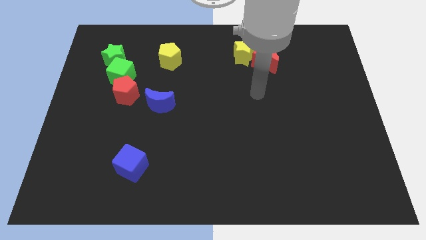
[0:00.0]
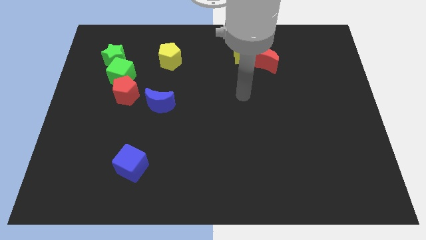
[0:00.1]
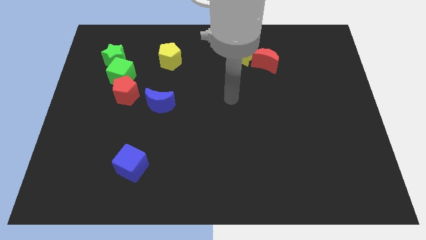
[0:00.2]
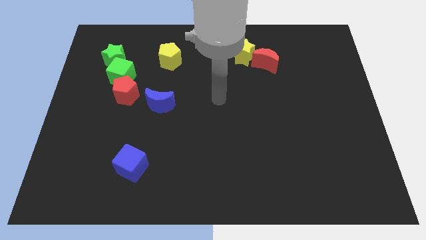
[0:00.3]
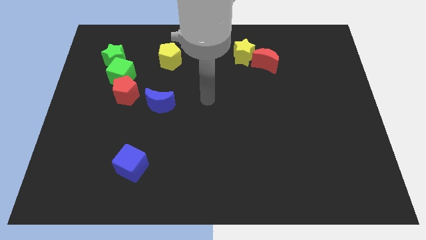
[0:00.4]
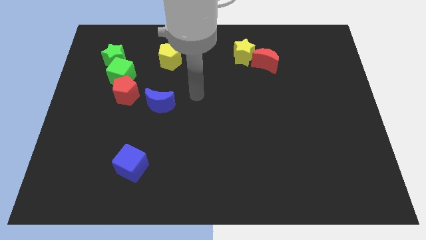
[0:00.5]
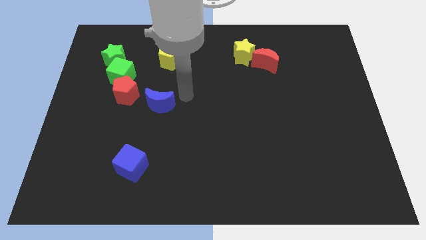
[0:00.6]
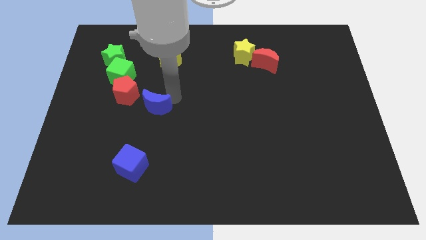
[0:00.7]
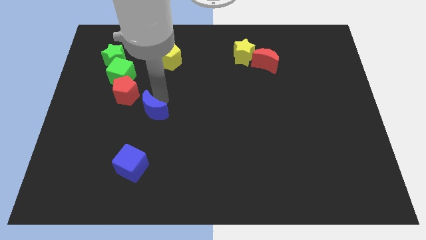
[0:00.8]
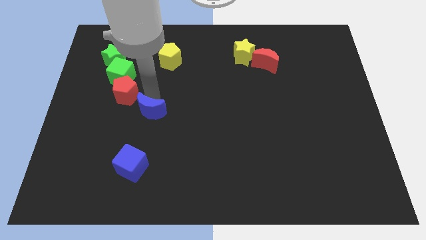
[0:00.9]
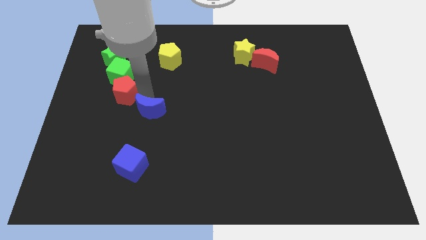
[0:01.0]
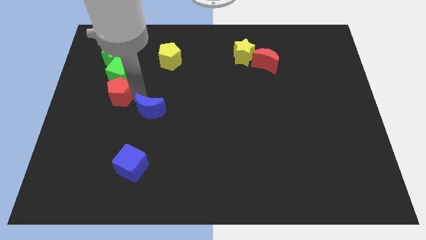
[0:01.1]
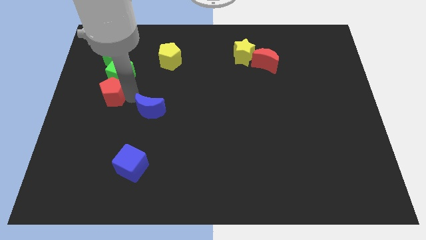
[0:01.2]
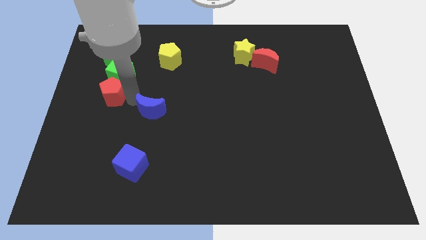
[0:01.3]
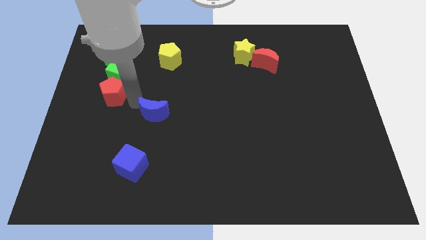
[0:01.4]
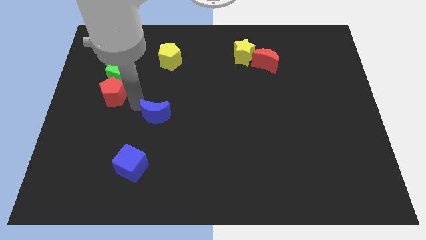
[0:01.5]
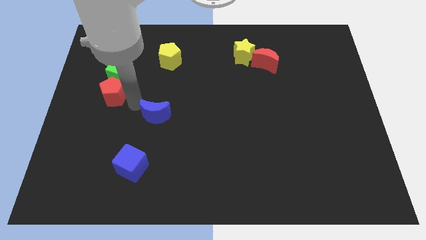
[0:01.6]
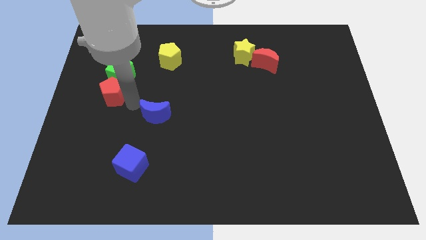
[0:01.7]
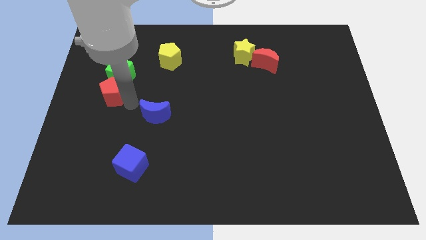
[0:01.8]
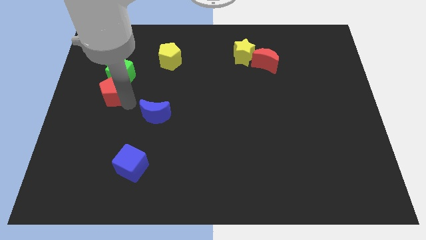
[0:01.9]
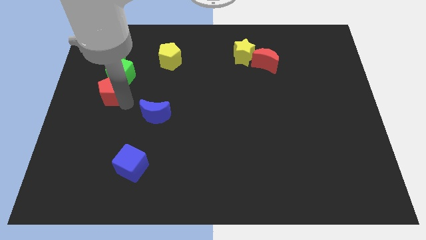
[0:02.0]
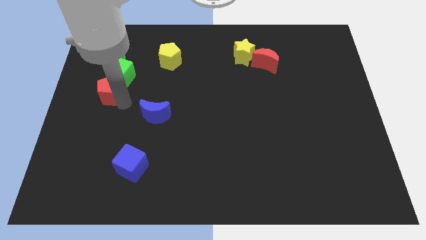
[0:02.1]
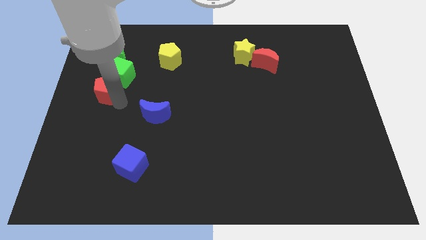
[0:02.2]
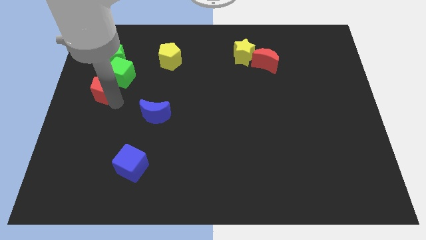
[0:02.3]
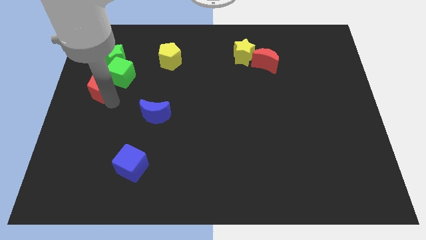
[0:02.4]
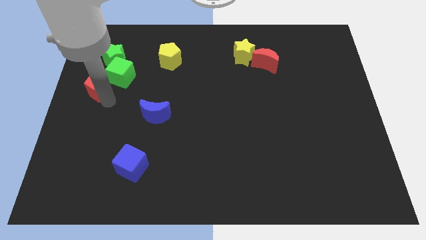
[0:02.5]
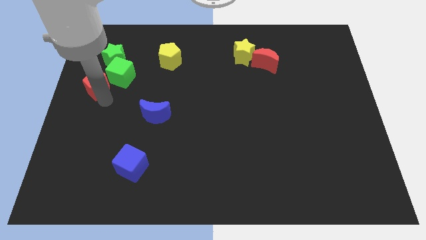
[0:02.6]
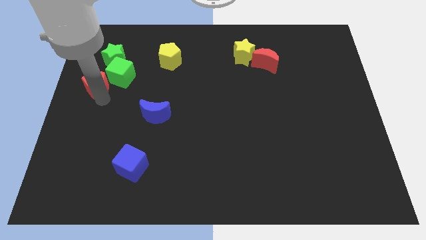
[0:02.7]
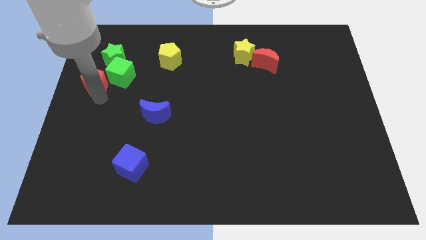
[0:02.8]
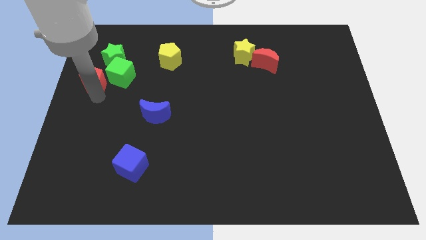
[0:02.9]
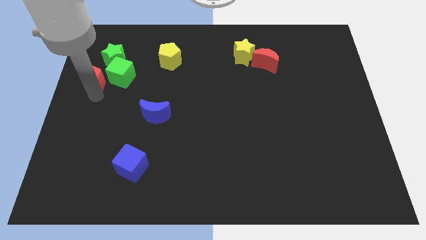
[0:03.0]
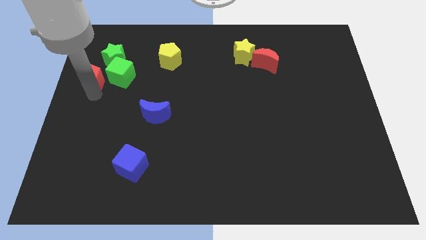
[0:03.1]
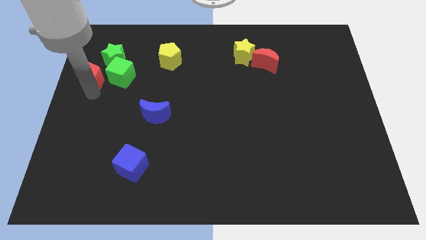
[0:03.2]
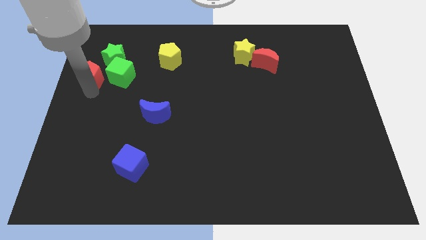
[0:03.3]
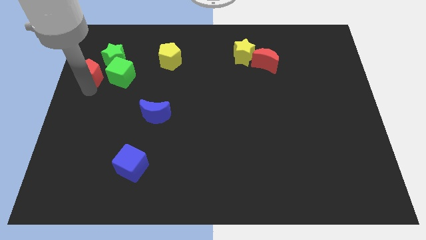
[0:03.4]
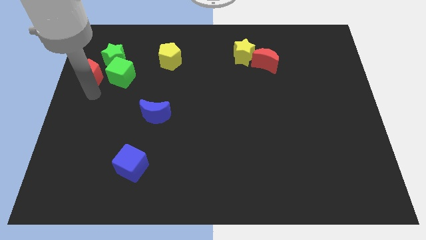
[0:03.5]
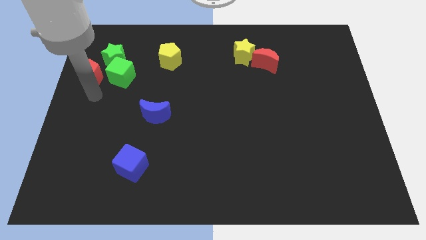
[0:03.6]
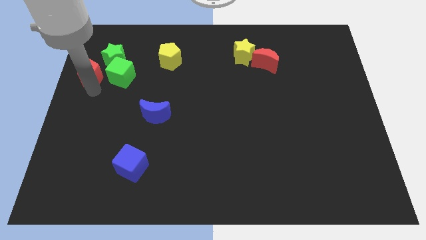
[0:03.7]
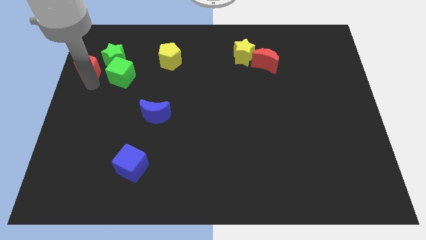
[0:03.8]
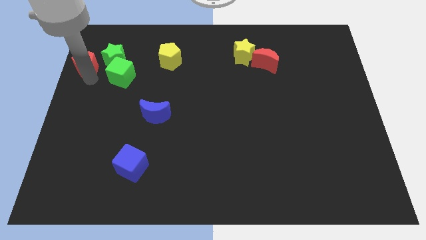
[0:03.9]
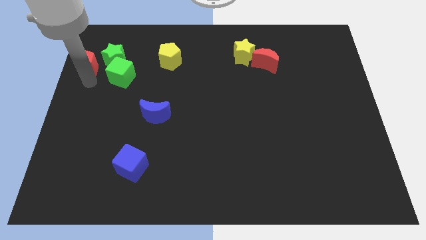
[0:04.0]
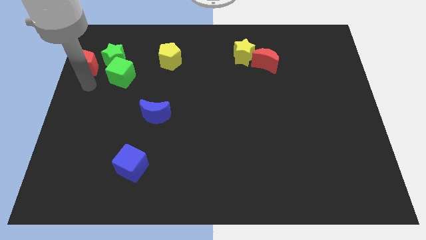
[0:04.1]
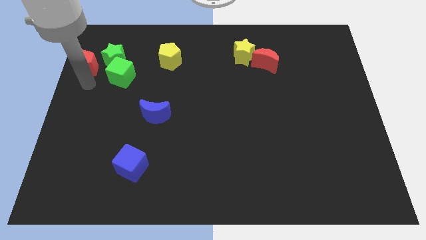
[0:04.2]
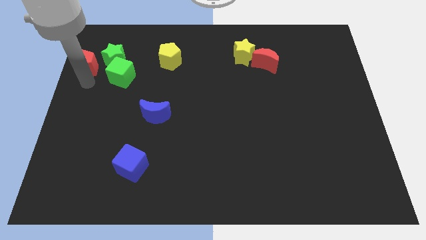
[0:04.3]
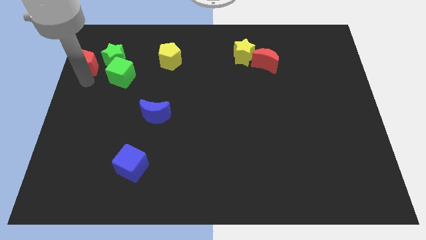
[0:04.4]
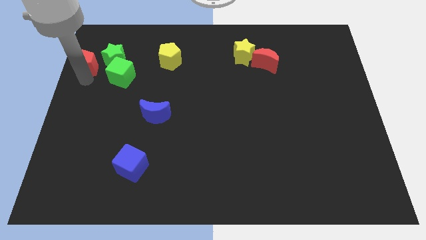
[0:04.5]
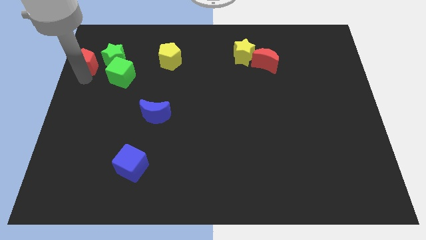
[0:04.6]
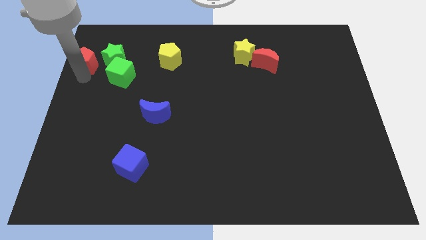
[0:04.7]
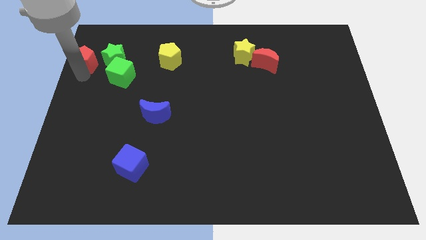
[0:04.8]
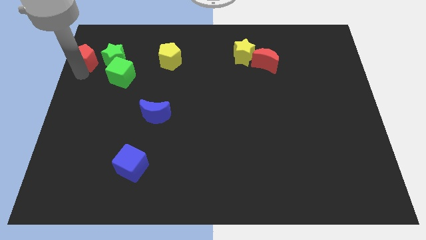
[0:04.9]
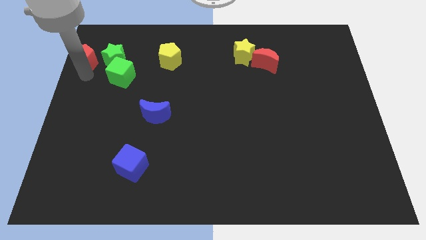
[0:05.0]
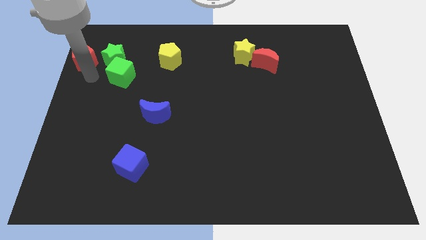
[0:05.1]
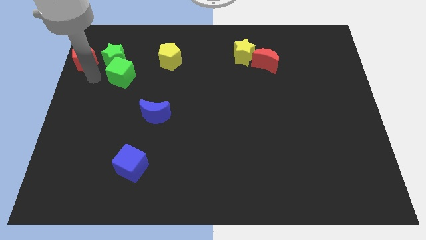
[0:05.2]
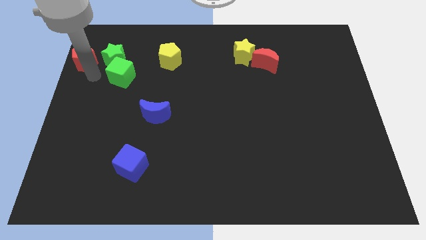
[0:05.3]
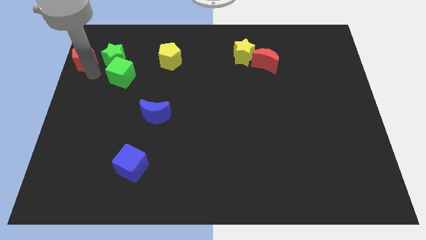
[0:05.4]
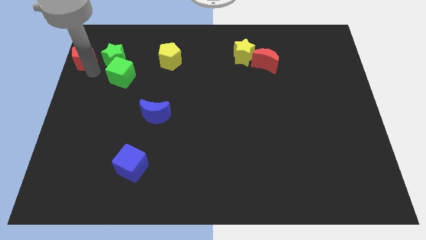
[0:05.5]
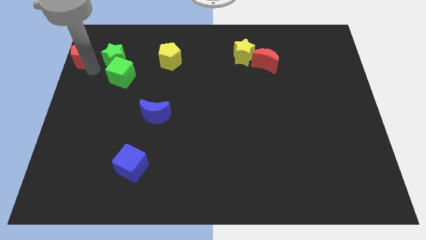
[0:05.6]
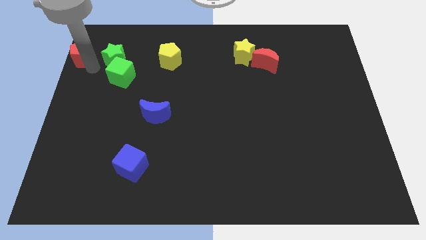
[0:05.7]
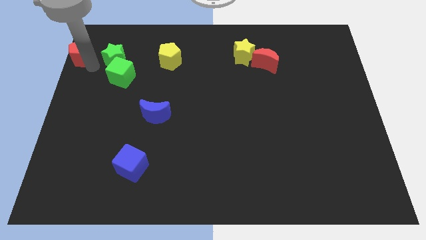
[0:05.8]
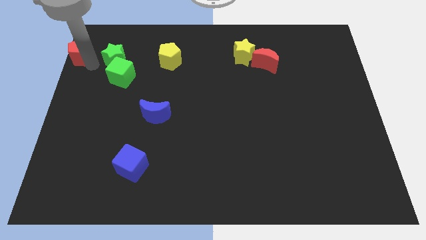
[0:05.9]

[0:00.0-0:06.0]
slide the red pentagon to the top left corner

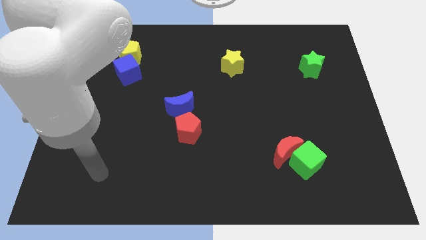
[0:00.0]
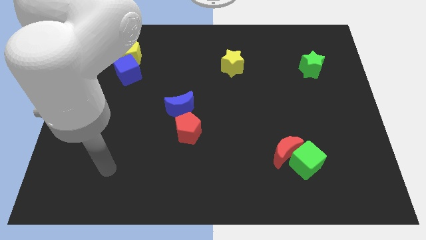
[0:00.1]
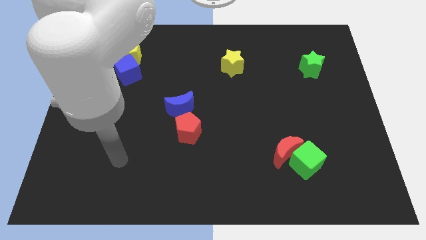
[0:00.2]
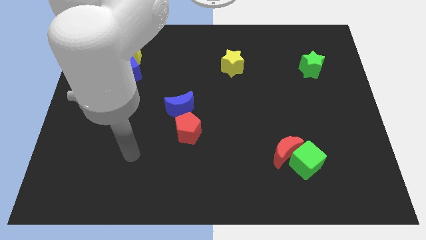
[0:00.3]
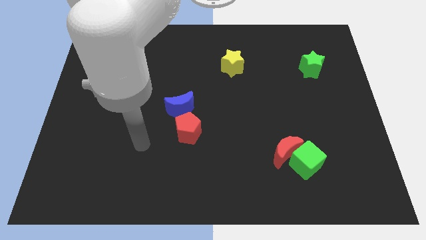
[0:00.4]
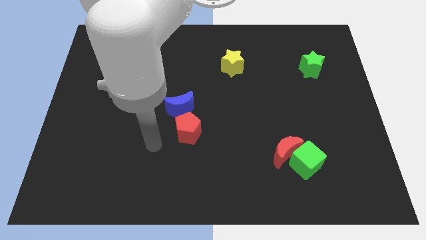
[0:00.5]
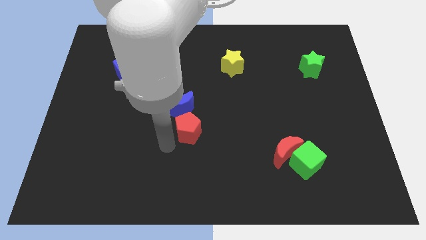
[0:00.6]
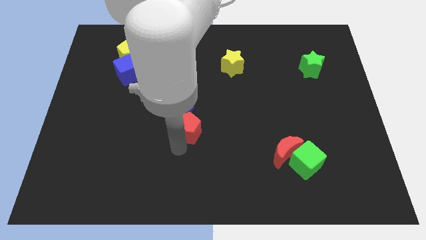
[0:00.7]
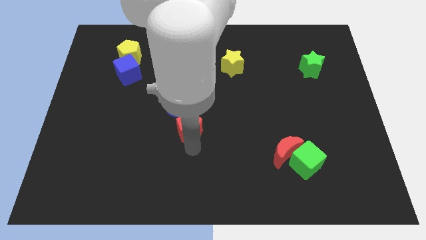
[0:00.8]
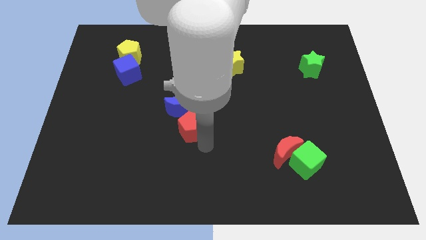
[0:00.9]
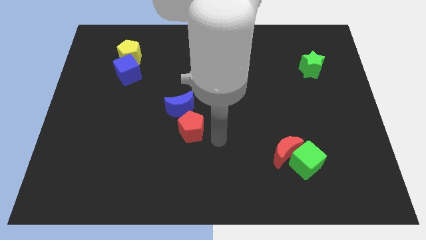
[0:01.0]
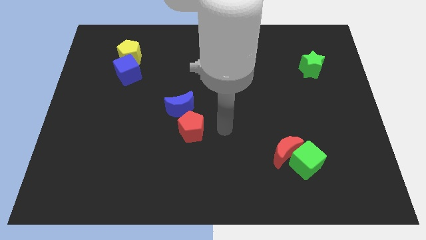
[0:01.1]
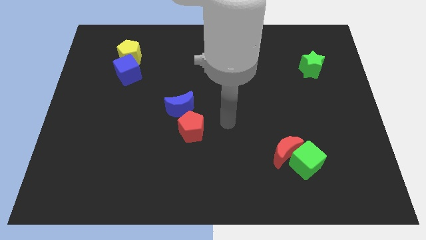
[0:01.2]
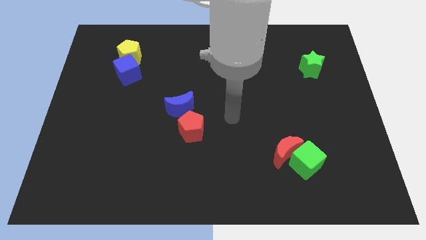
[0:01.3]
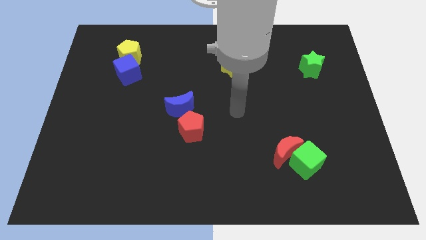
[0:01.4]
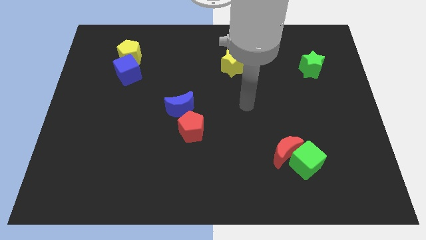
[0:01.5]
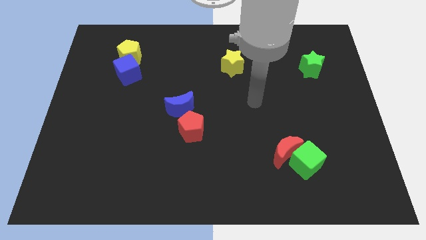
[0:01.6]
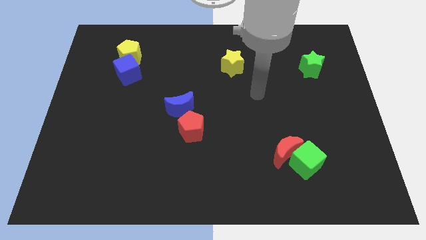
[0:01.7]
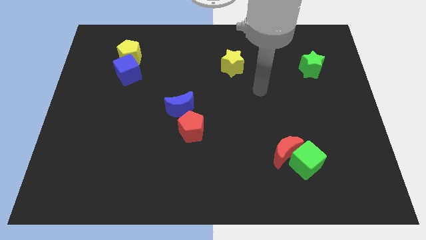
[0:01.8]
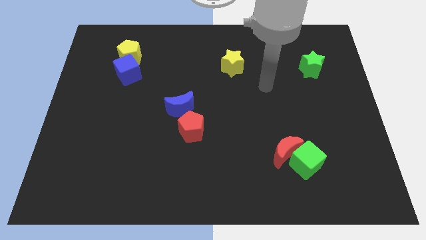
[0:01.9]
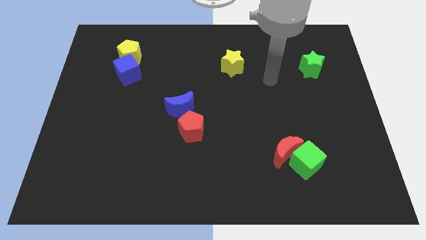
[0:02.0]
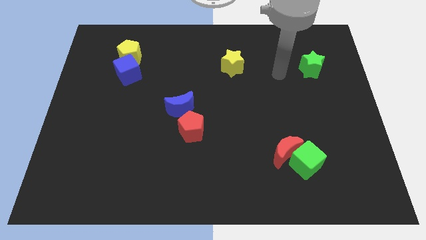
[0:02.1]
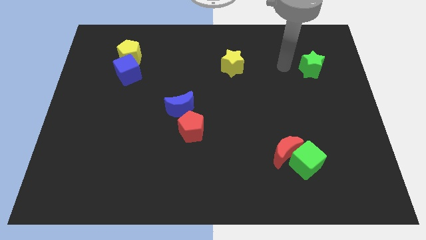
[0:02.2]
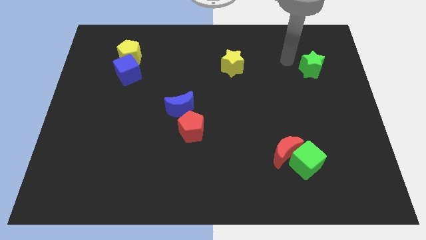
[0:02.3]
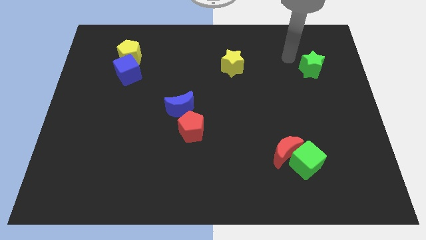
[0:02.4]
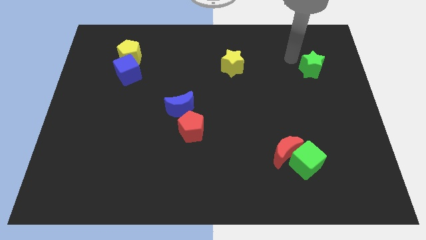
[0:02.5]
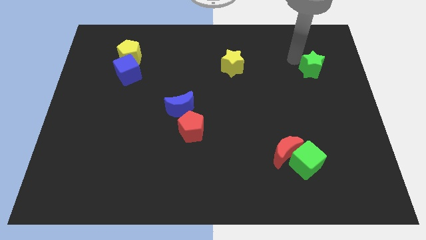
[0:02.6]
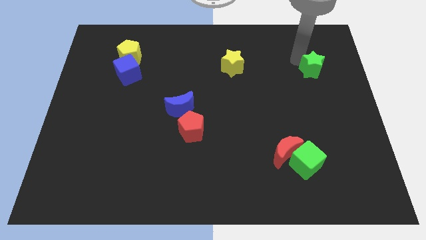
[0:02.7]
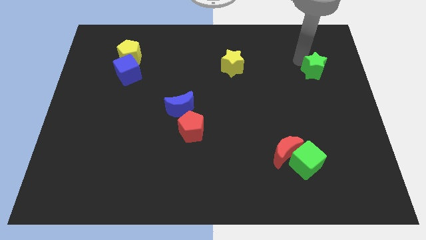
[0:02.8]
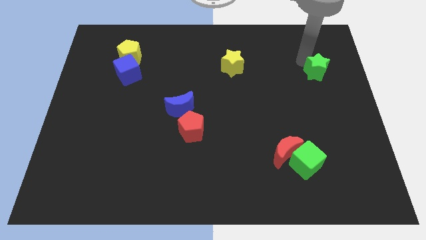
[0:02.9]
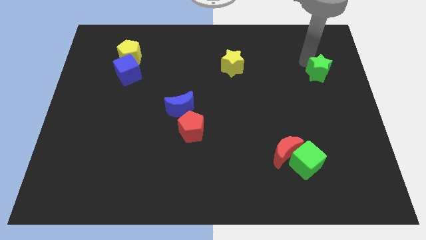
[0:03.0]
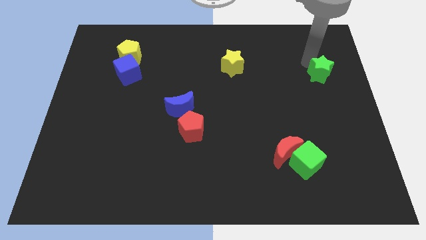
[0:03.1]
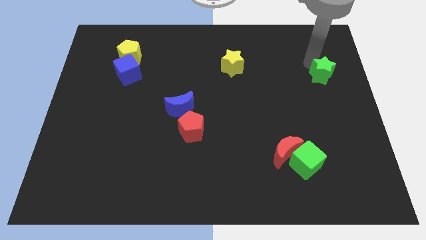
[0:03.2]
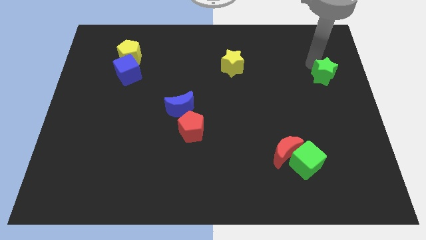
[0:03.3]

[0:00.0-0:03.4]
push the green star to the right side of the board
